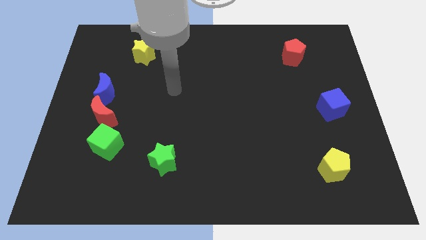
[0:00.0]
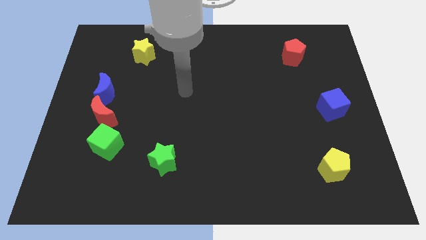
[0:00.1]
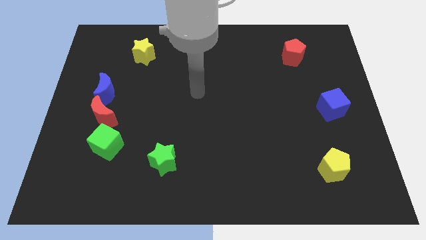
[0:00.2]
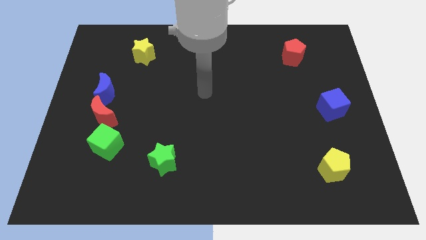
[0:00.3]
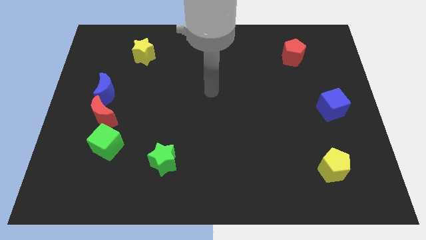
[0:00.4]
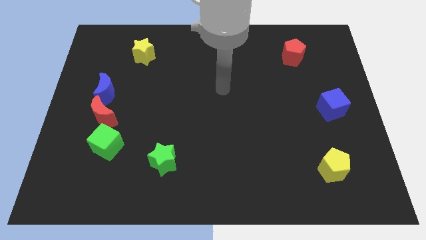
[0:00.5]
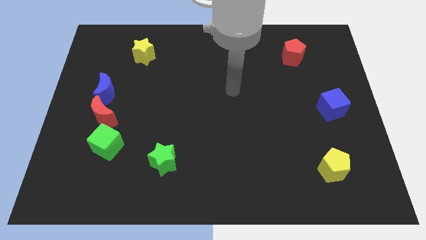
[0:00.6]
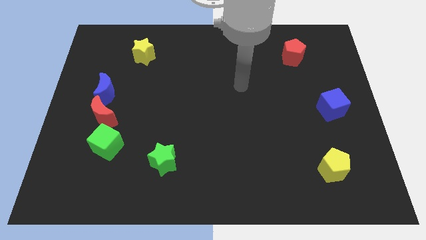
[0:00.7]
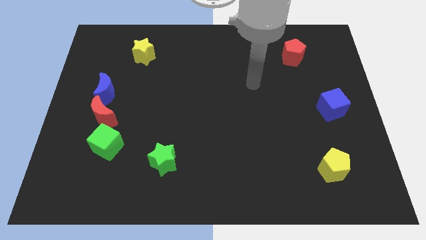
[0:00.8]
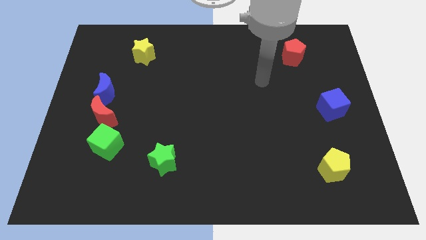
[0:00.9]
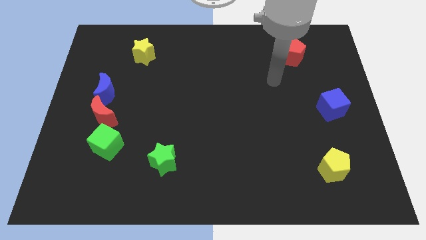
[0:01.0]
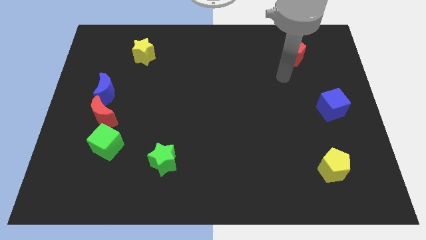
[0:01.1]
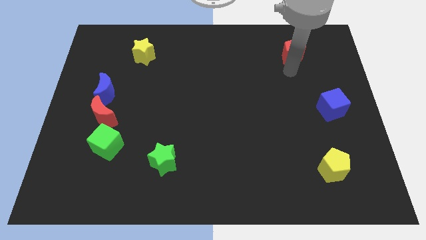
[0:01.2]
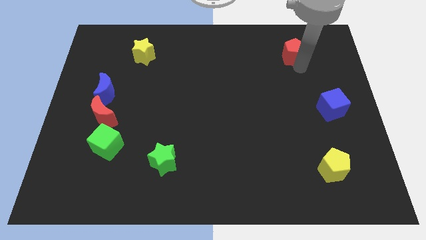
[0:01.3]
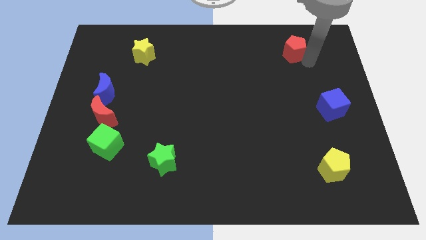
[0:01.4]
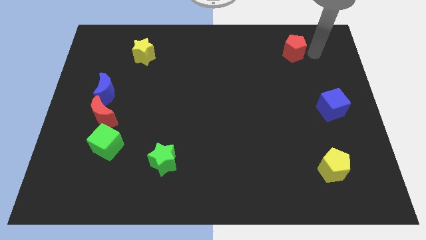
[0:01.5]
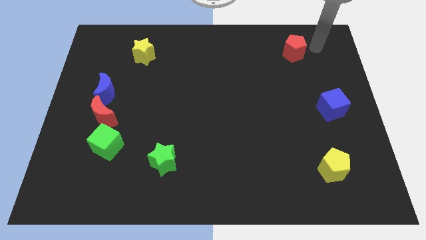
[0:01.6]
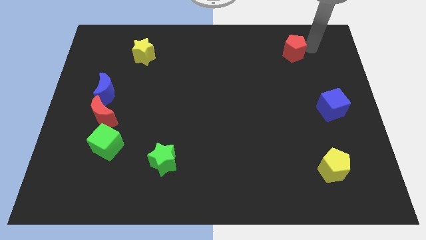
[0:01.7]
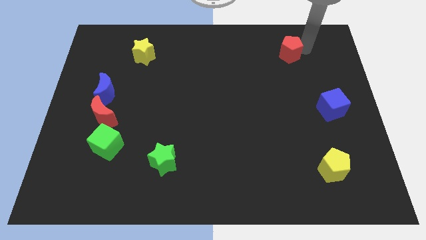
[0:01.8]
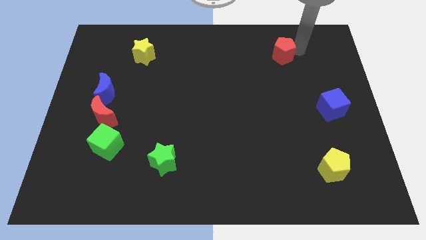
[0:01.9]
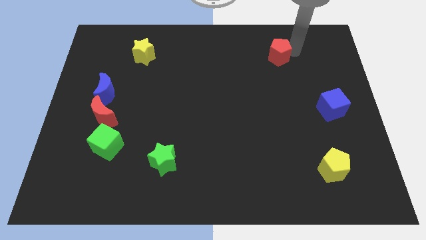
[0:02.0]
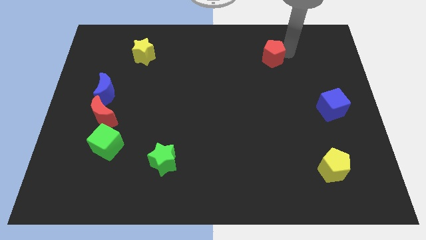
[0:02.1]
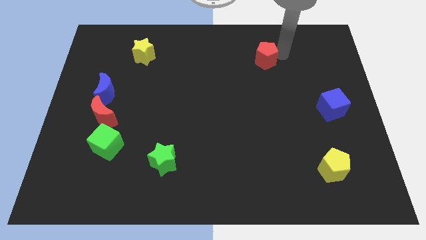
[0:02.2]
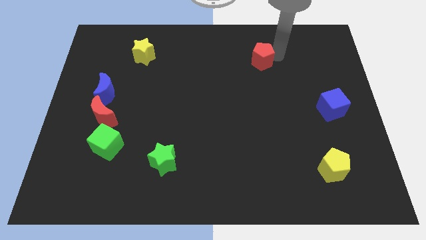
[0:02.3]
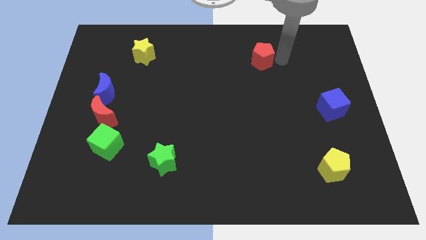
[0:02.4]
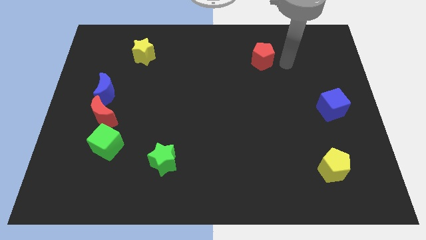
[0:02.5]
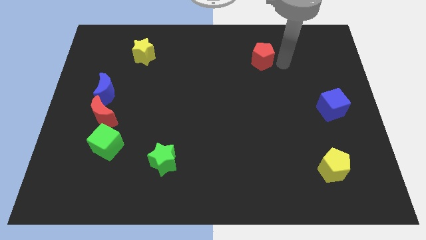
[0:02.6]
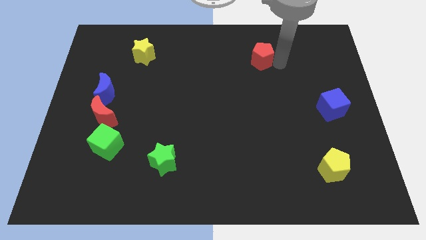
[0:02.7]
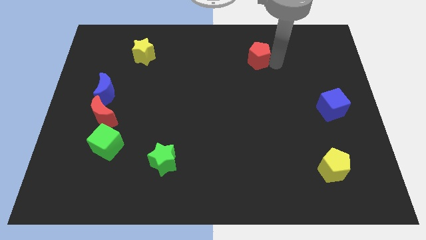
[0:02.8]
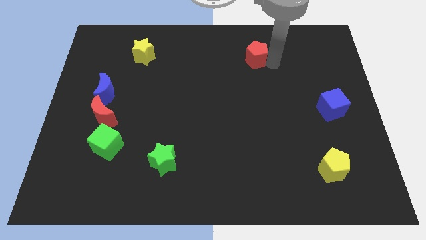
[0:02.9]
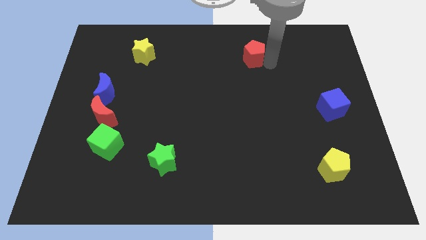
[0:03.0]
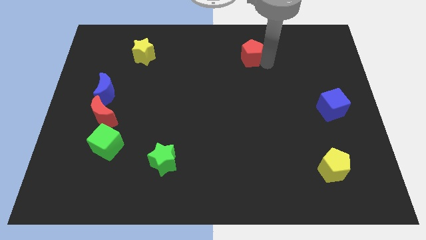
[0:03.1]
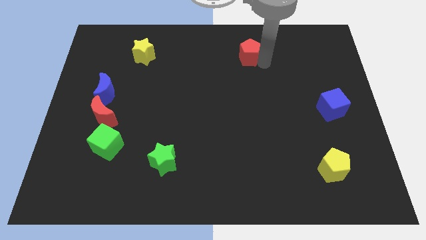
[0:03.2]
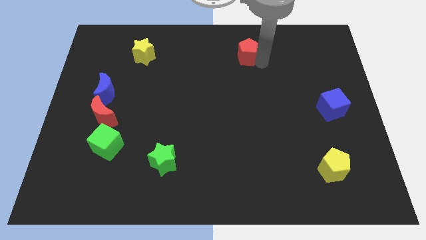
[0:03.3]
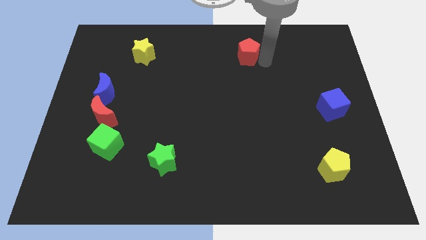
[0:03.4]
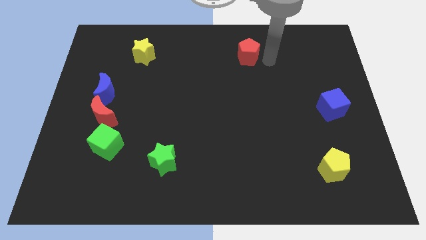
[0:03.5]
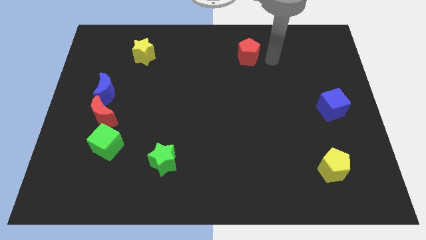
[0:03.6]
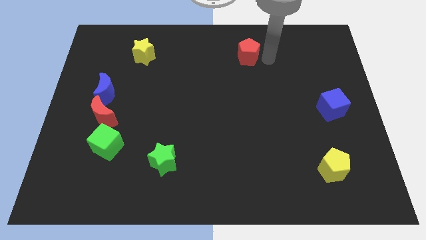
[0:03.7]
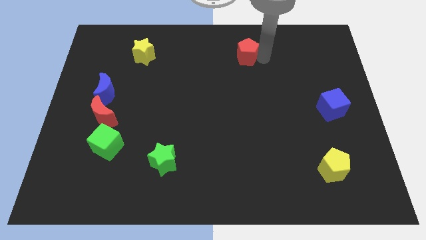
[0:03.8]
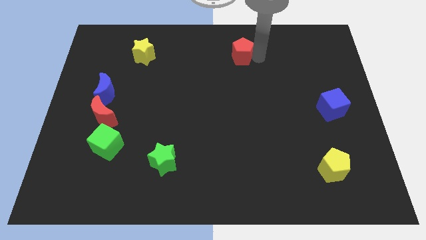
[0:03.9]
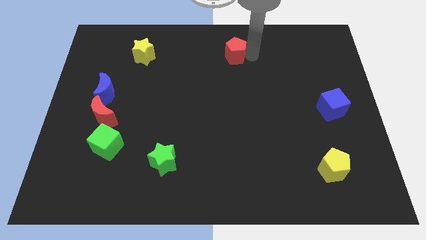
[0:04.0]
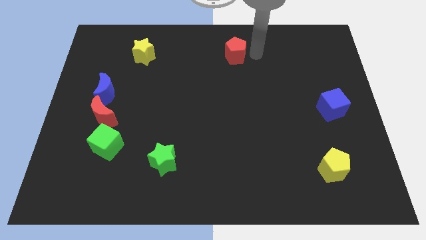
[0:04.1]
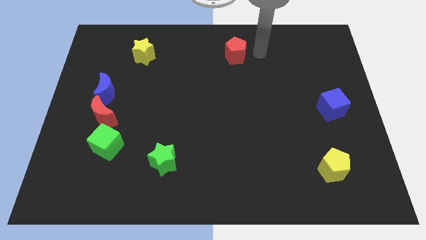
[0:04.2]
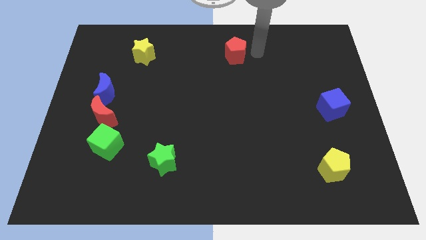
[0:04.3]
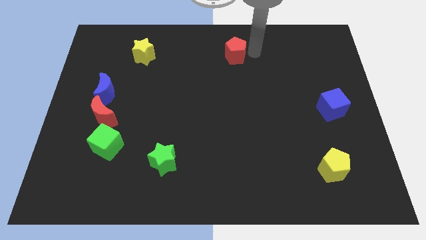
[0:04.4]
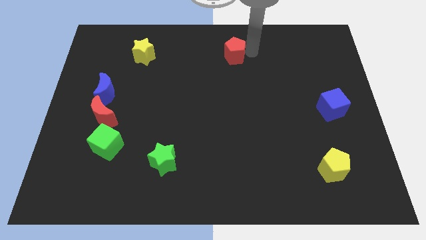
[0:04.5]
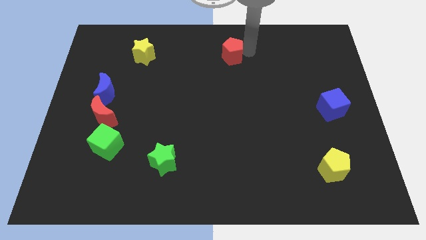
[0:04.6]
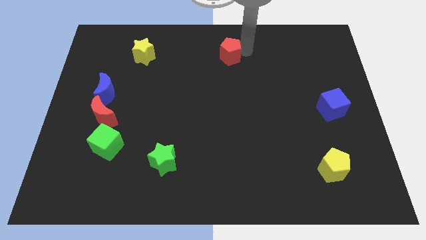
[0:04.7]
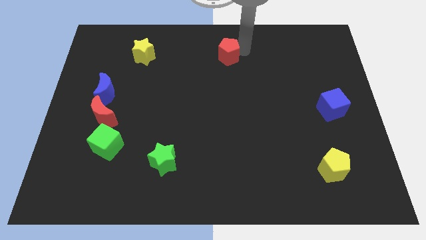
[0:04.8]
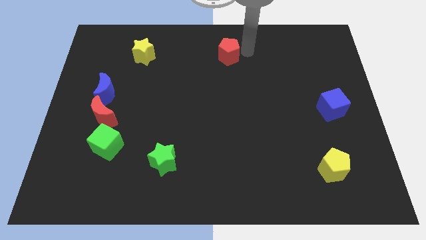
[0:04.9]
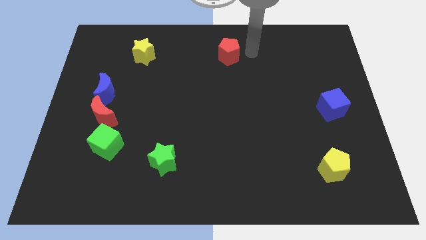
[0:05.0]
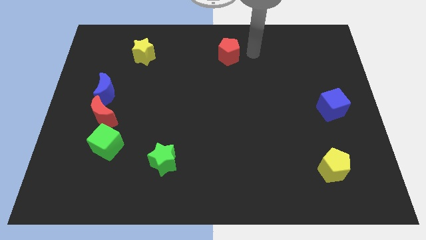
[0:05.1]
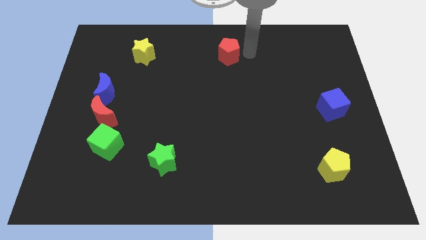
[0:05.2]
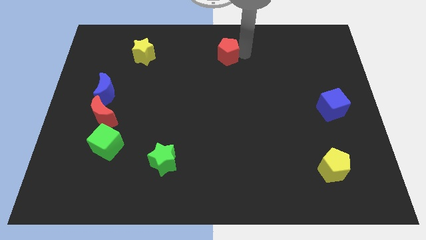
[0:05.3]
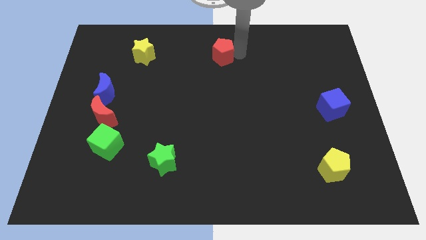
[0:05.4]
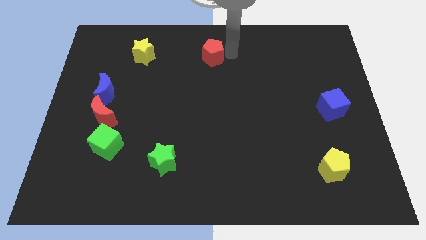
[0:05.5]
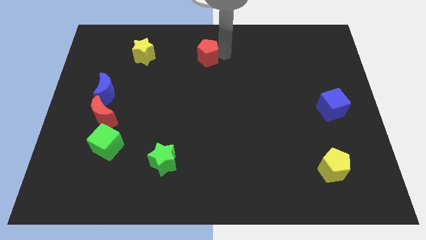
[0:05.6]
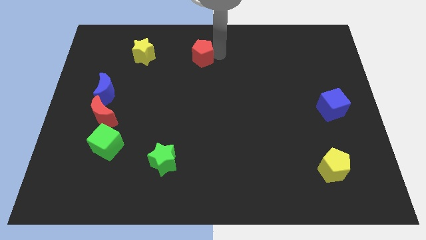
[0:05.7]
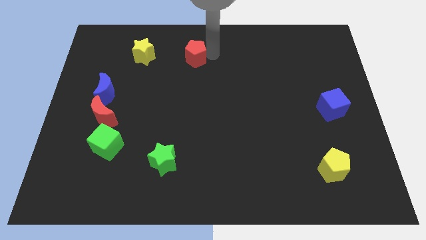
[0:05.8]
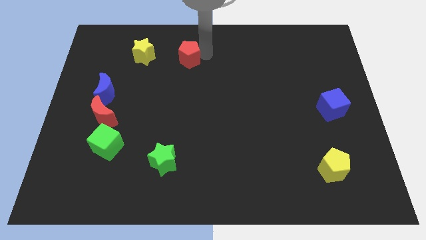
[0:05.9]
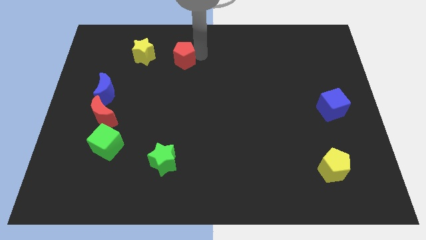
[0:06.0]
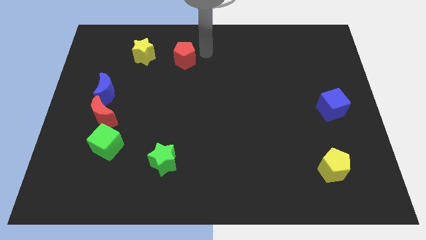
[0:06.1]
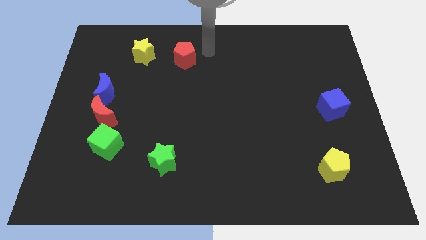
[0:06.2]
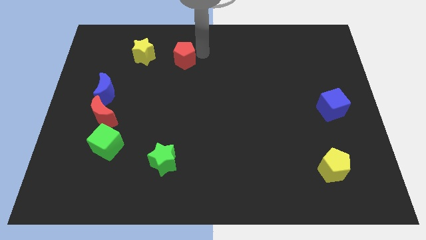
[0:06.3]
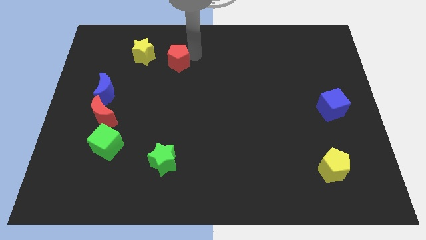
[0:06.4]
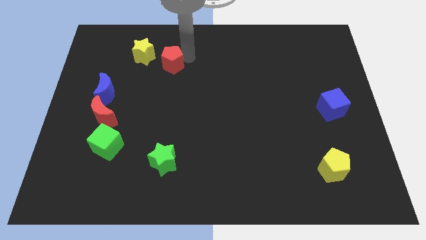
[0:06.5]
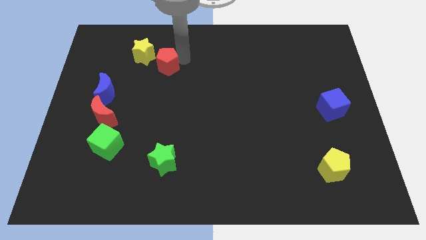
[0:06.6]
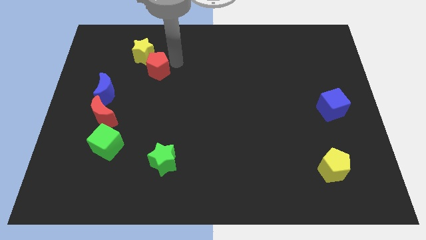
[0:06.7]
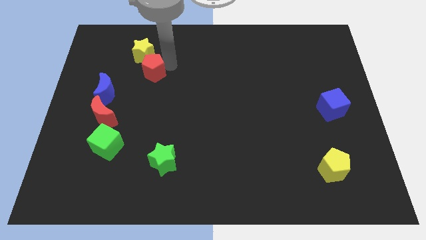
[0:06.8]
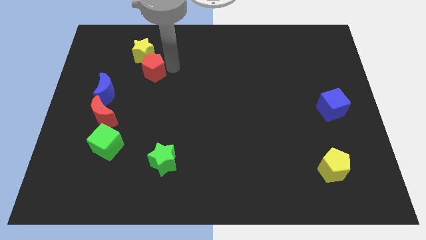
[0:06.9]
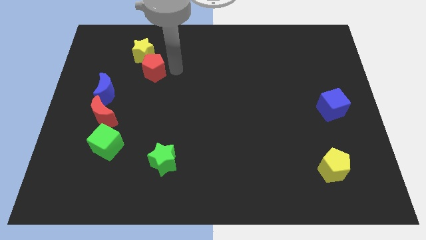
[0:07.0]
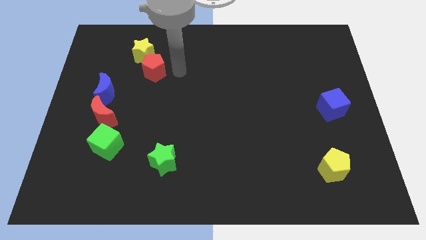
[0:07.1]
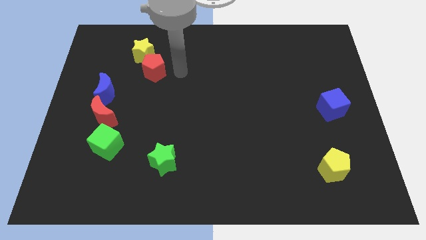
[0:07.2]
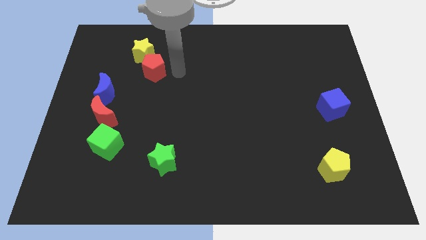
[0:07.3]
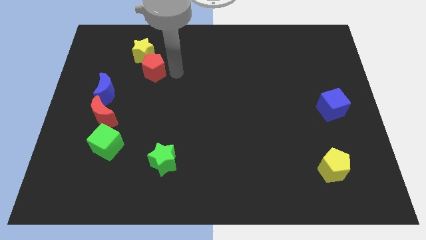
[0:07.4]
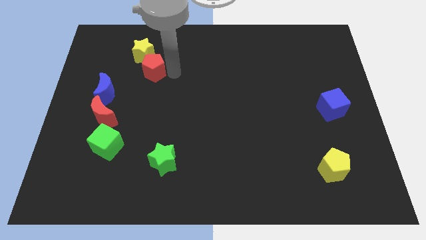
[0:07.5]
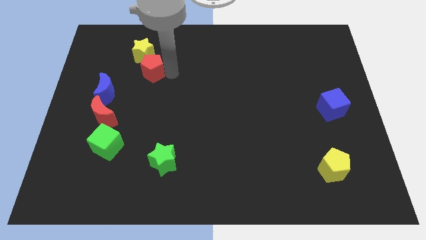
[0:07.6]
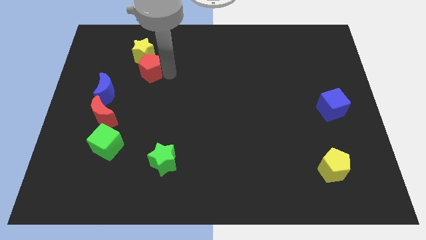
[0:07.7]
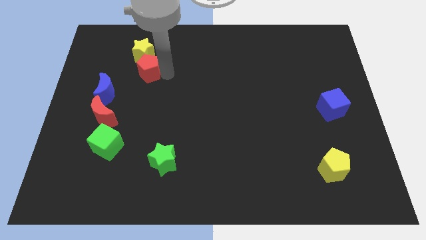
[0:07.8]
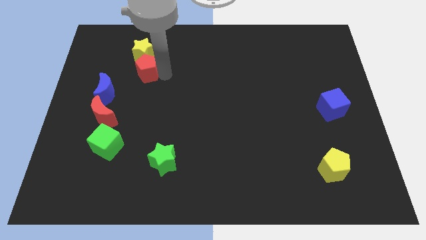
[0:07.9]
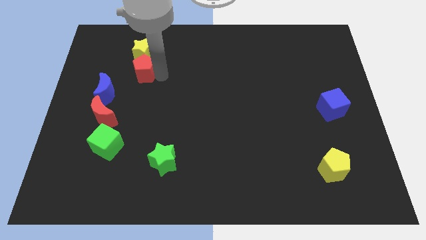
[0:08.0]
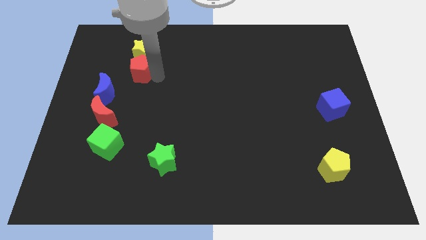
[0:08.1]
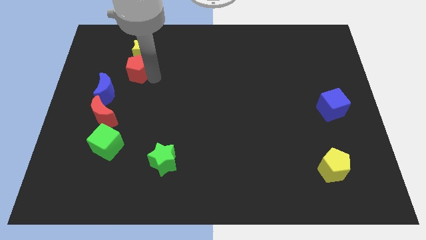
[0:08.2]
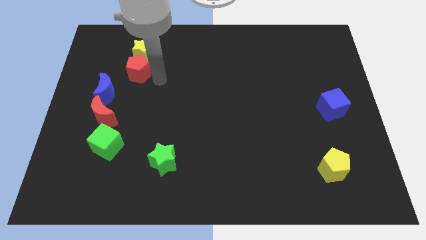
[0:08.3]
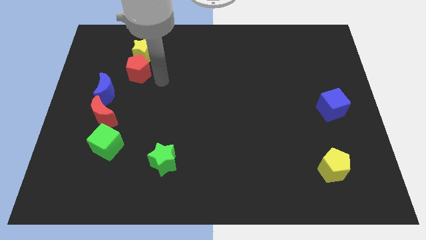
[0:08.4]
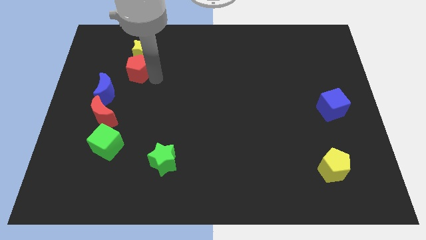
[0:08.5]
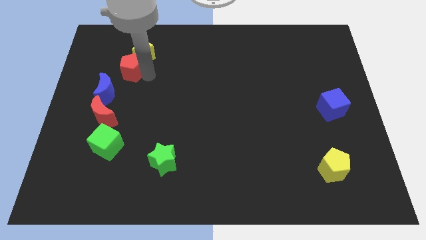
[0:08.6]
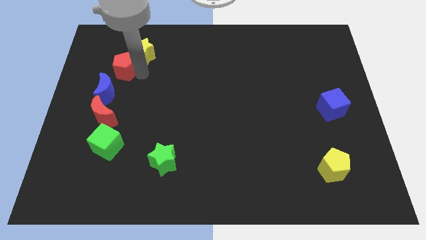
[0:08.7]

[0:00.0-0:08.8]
slide the red pentagon to the top of the blue moon
